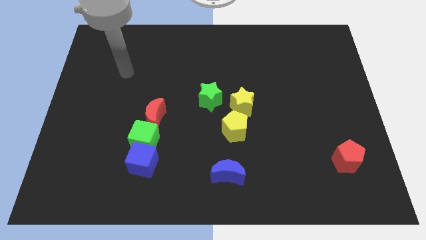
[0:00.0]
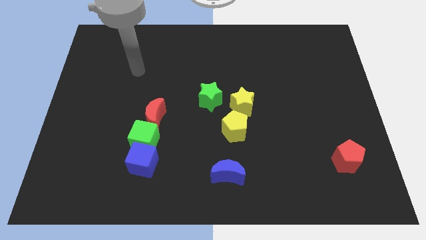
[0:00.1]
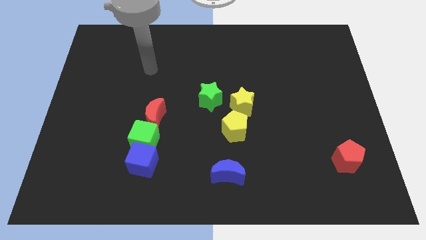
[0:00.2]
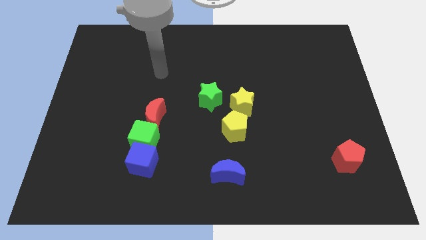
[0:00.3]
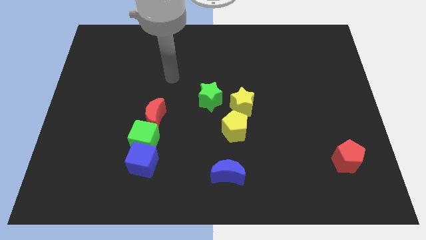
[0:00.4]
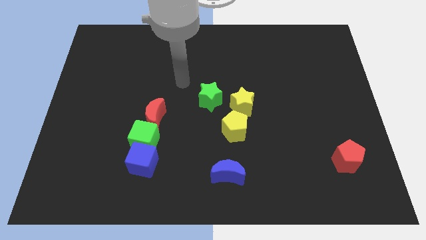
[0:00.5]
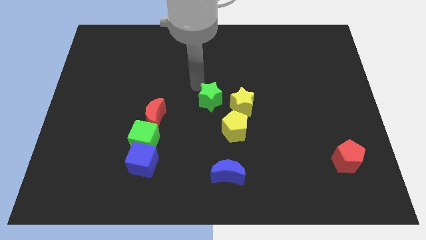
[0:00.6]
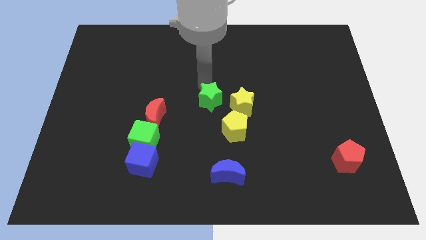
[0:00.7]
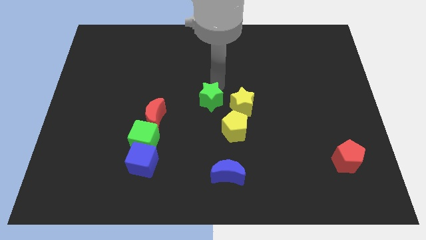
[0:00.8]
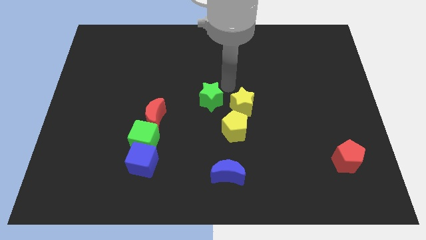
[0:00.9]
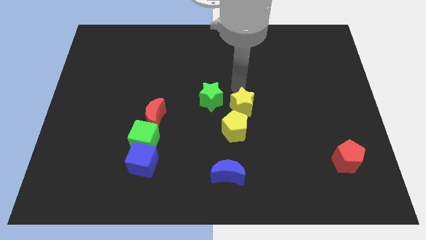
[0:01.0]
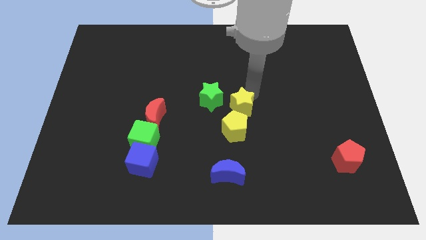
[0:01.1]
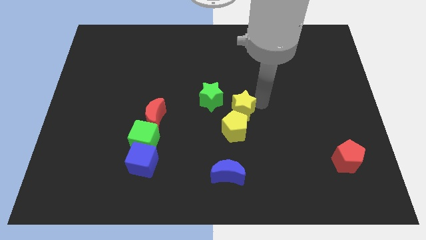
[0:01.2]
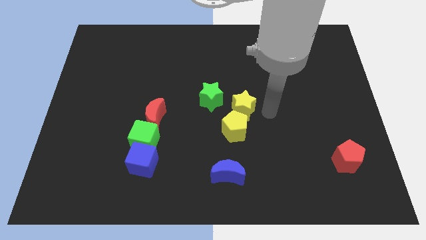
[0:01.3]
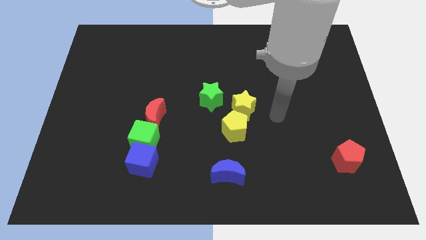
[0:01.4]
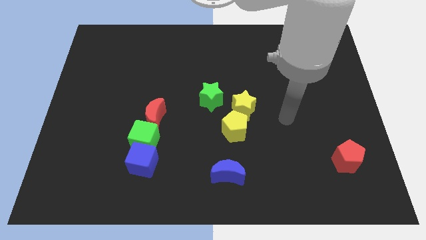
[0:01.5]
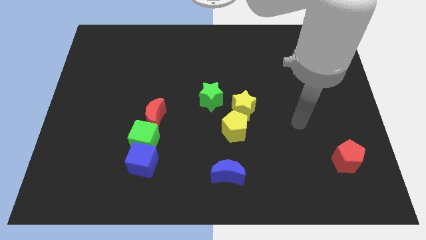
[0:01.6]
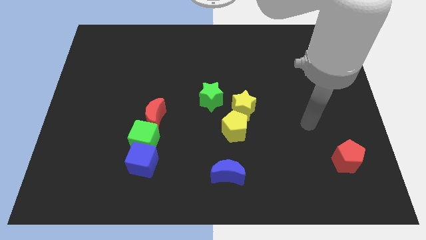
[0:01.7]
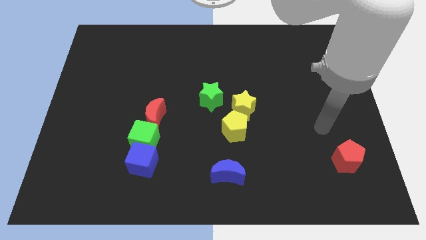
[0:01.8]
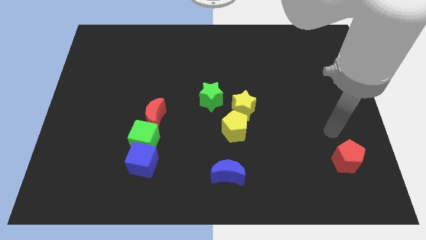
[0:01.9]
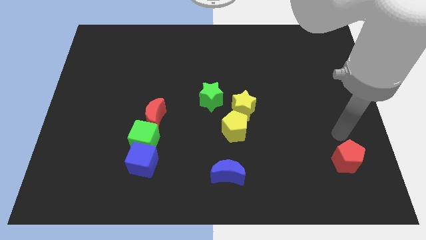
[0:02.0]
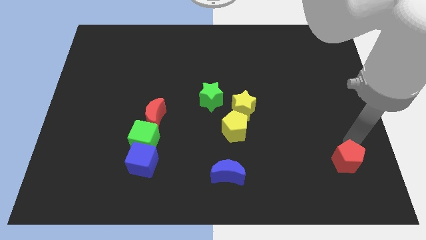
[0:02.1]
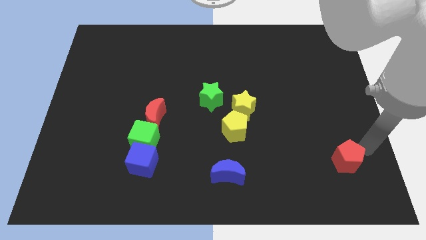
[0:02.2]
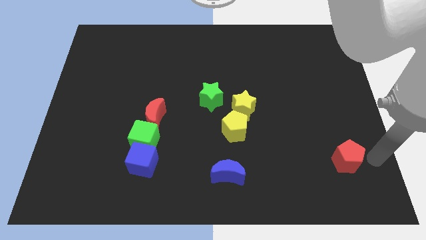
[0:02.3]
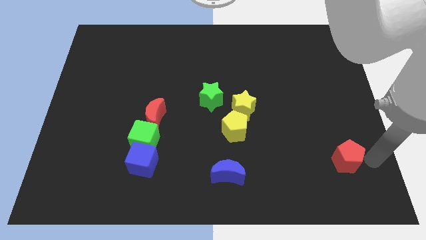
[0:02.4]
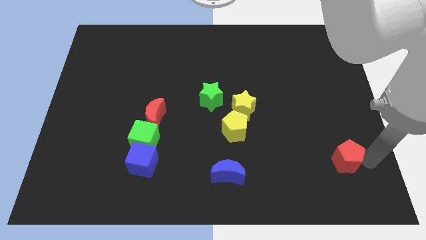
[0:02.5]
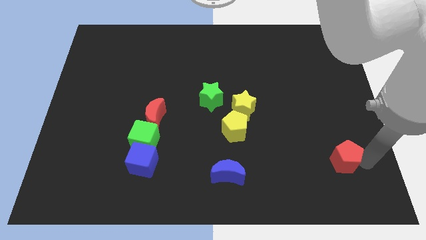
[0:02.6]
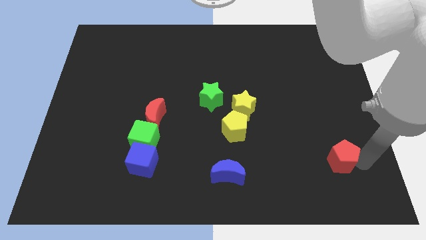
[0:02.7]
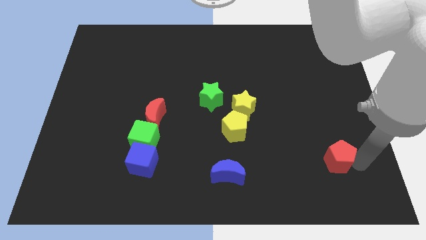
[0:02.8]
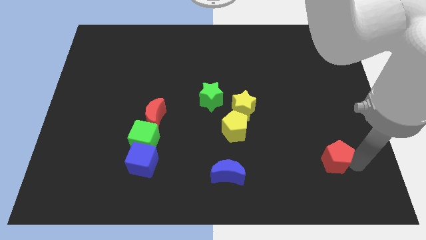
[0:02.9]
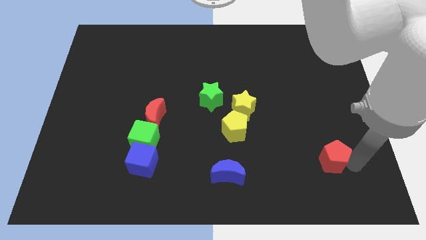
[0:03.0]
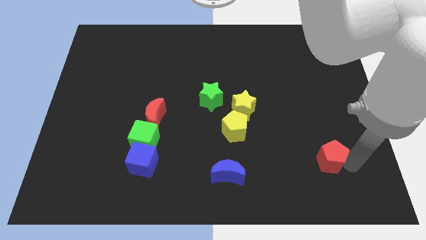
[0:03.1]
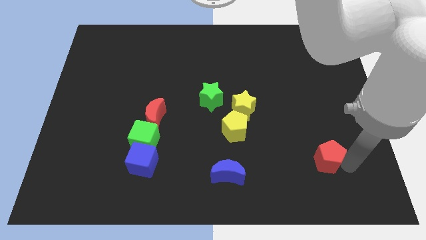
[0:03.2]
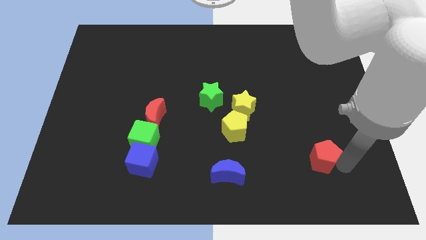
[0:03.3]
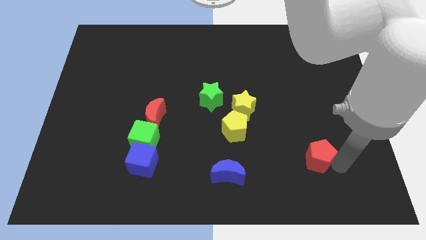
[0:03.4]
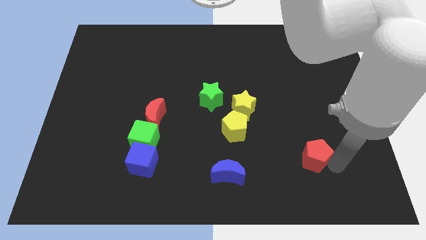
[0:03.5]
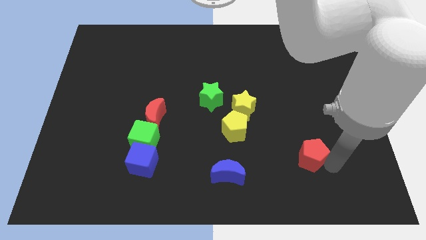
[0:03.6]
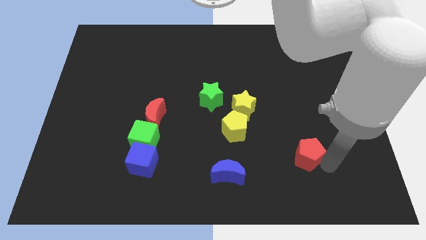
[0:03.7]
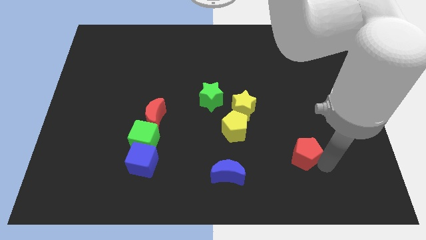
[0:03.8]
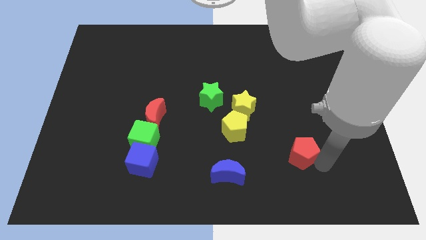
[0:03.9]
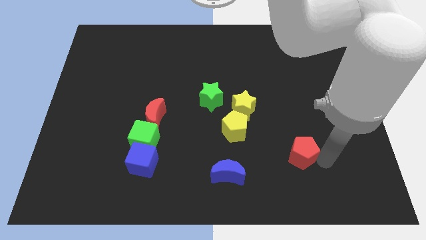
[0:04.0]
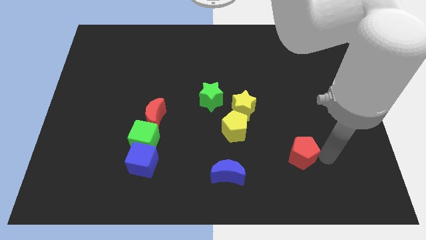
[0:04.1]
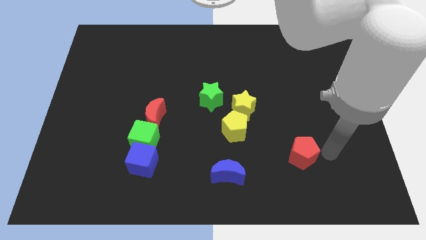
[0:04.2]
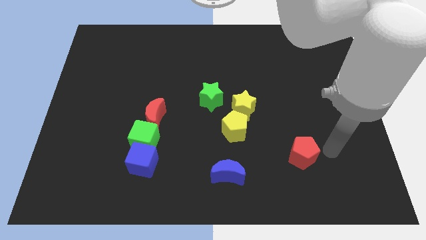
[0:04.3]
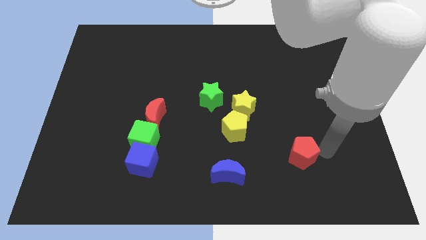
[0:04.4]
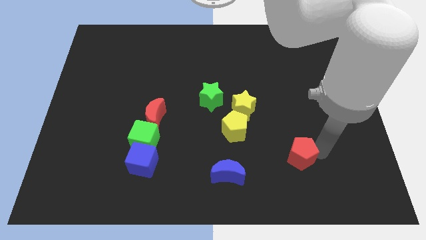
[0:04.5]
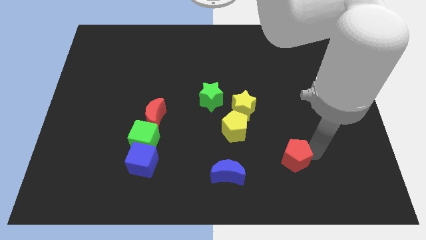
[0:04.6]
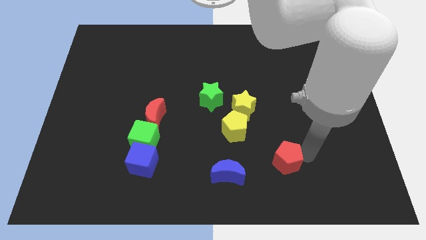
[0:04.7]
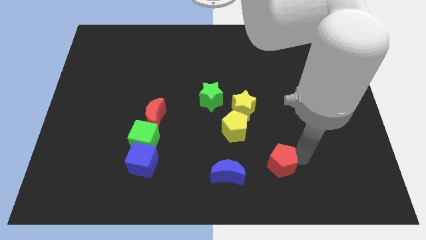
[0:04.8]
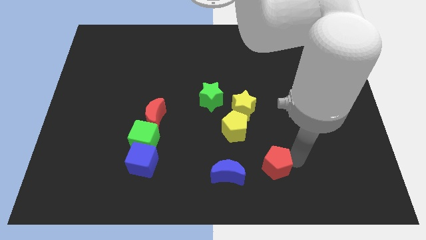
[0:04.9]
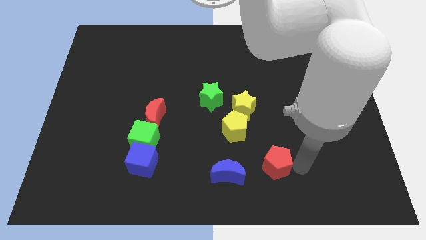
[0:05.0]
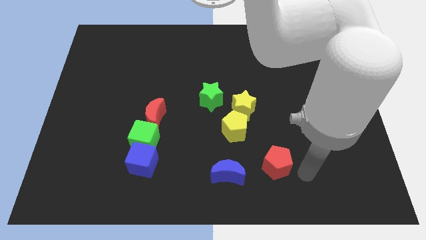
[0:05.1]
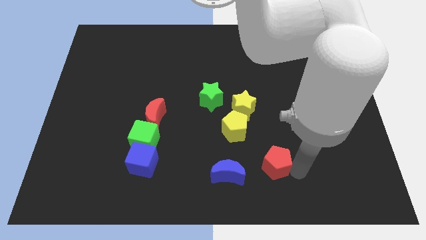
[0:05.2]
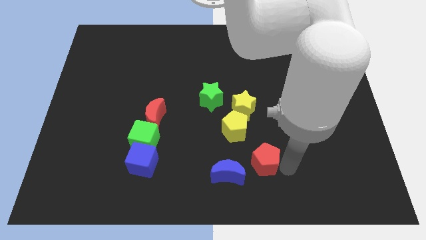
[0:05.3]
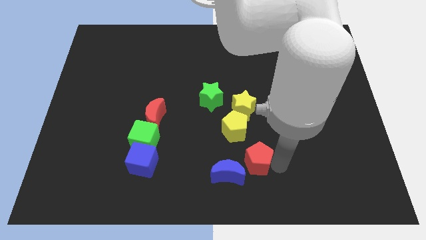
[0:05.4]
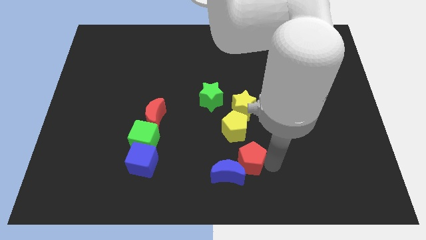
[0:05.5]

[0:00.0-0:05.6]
slide the red pentagon to the left

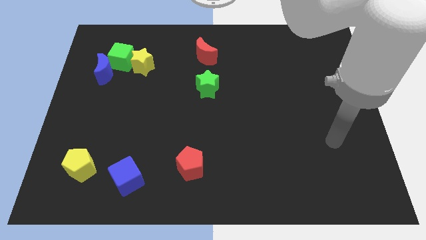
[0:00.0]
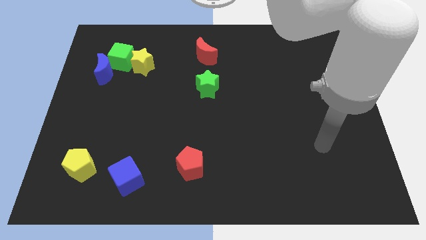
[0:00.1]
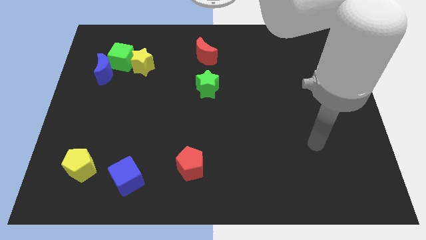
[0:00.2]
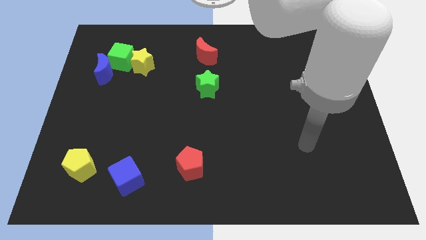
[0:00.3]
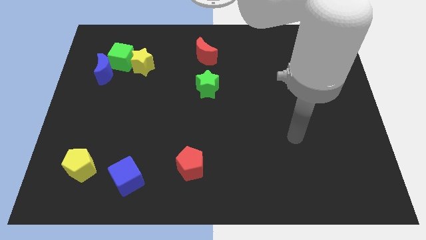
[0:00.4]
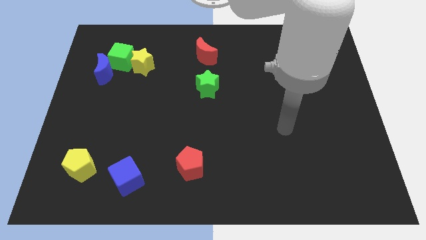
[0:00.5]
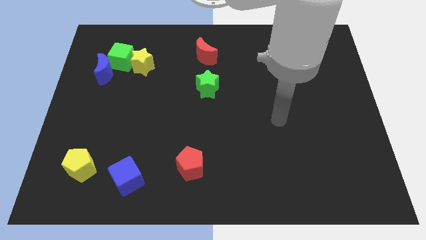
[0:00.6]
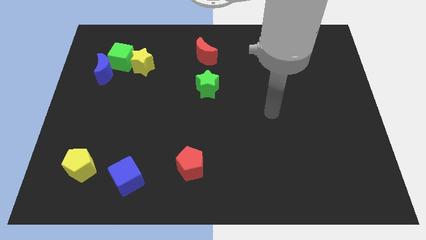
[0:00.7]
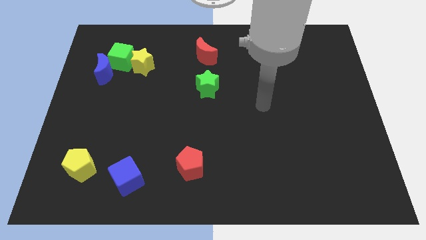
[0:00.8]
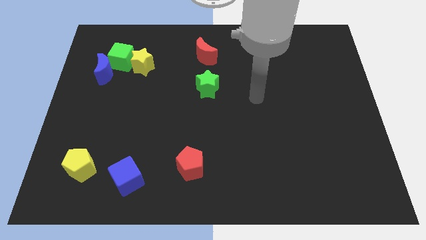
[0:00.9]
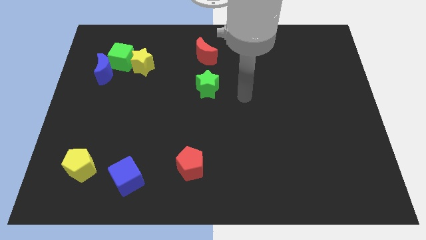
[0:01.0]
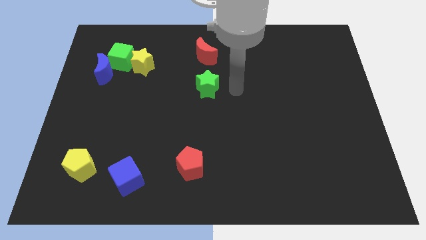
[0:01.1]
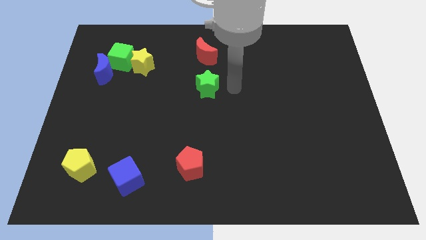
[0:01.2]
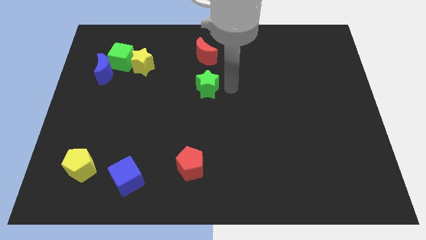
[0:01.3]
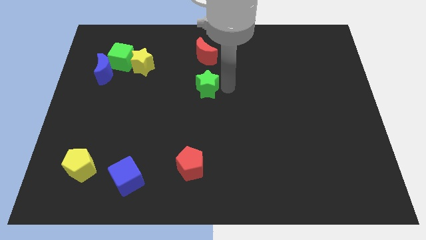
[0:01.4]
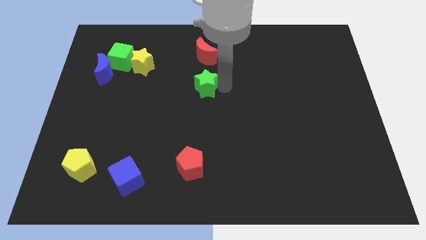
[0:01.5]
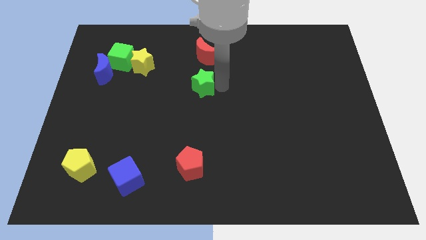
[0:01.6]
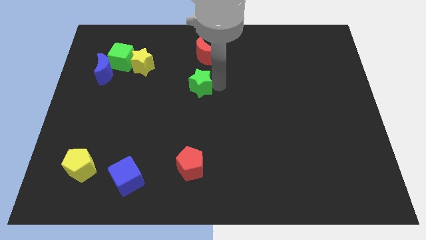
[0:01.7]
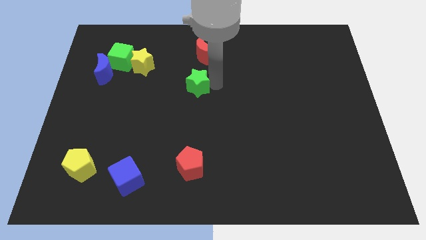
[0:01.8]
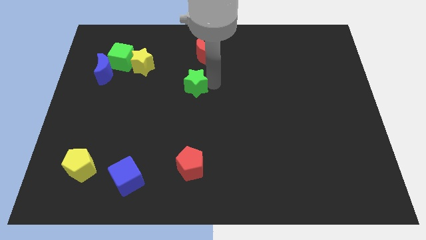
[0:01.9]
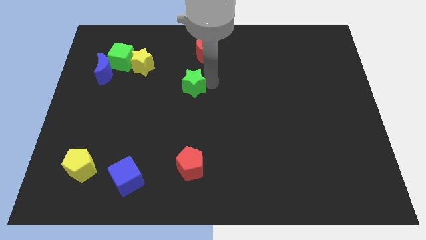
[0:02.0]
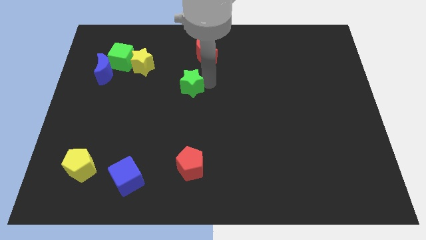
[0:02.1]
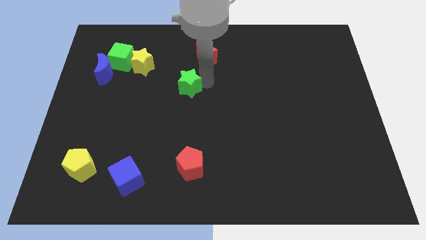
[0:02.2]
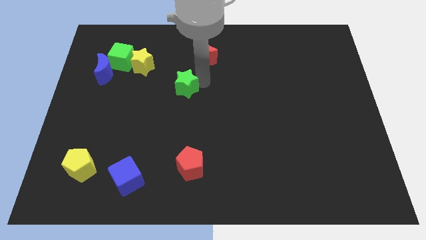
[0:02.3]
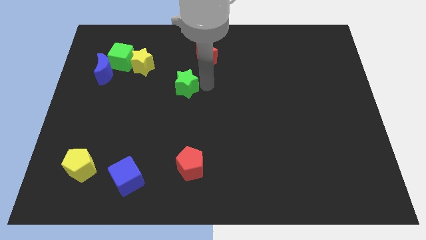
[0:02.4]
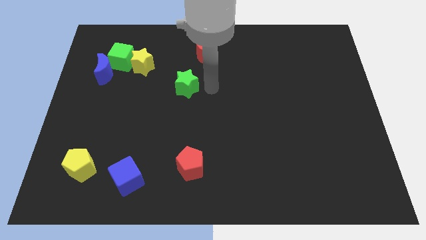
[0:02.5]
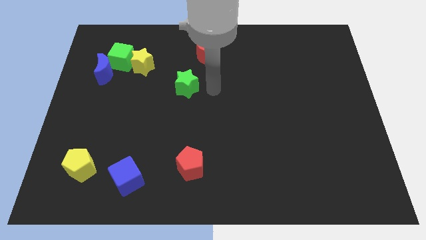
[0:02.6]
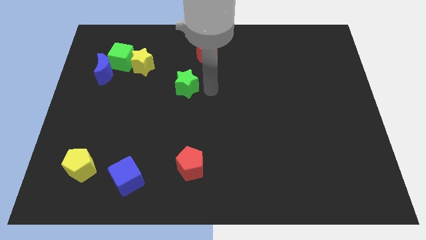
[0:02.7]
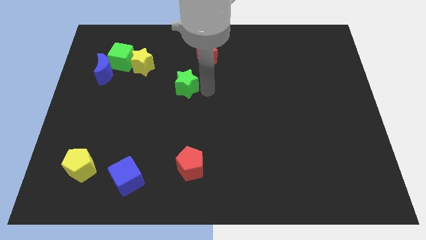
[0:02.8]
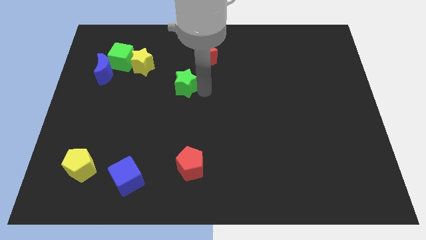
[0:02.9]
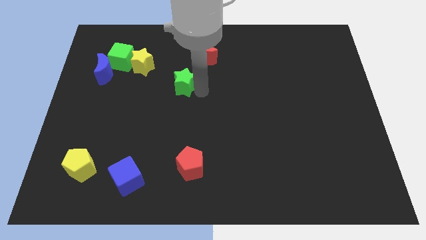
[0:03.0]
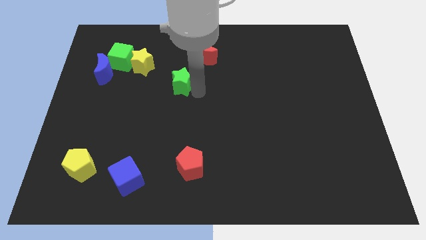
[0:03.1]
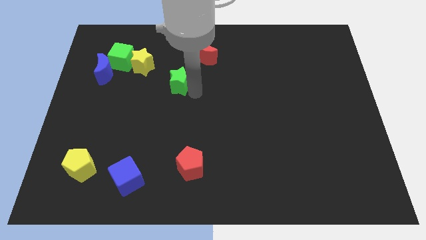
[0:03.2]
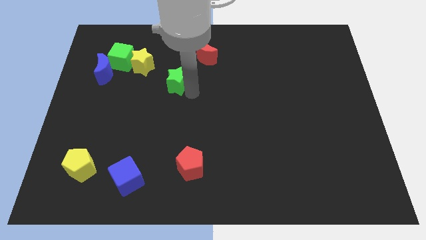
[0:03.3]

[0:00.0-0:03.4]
slide the green star left a little
